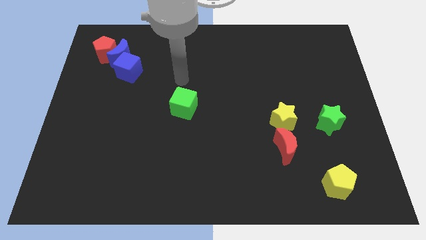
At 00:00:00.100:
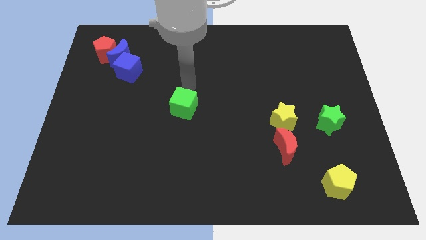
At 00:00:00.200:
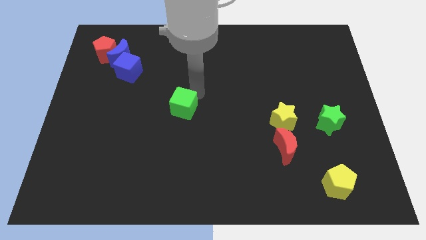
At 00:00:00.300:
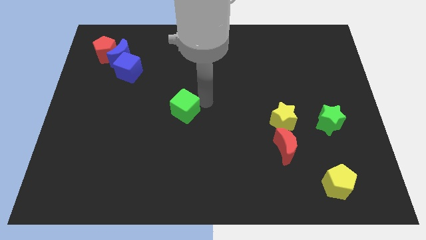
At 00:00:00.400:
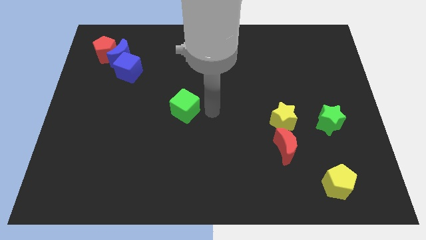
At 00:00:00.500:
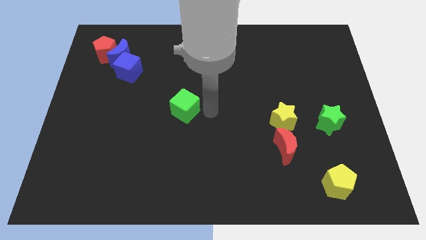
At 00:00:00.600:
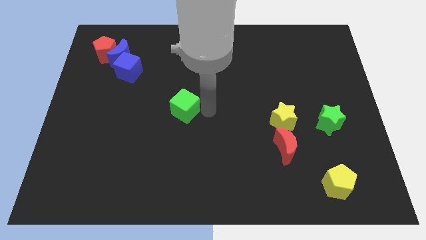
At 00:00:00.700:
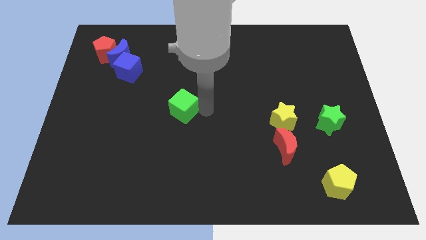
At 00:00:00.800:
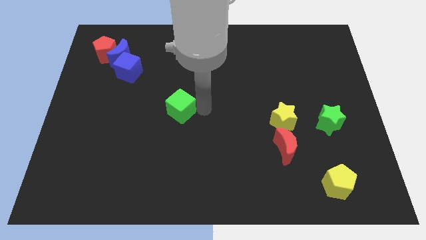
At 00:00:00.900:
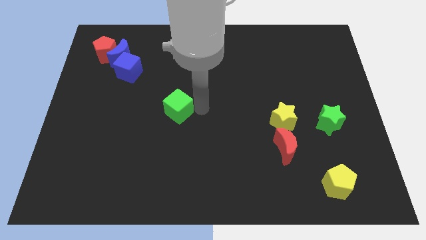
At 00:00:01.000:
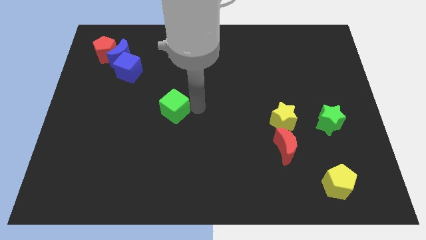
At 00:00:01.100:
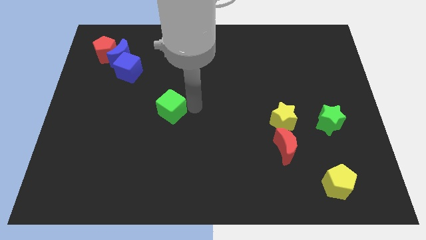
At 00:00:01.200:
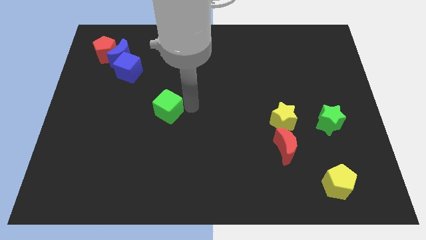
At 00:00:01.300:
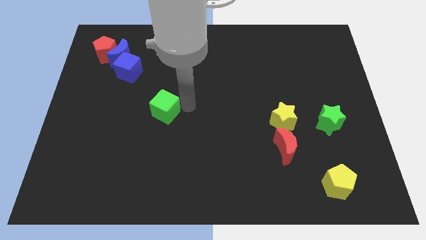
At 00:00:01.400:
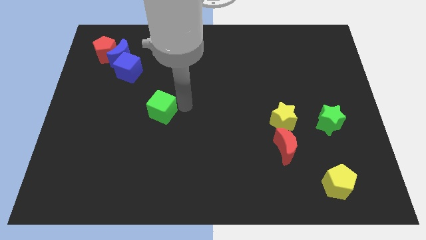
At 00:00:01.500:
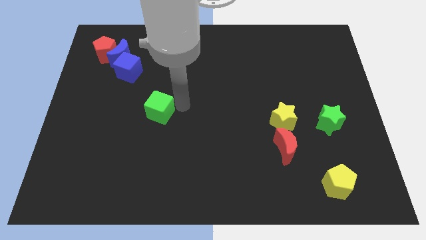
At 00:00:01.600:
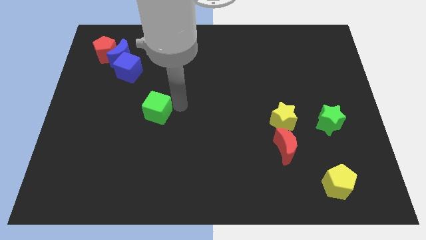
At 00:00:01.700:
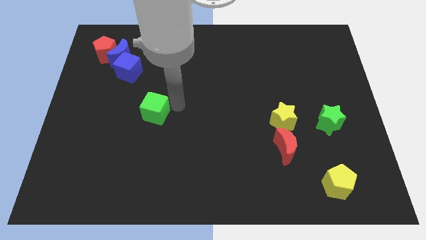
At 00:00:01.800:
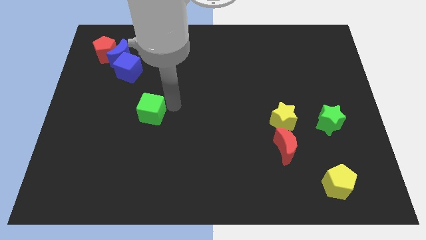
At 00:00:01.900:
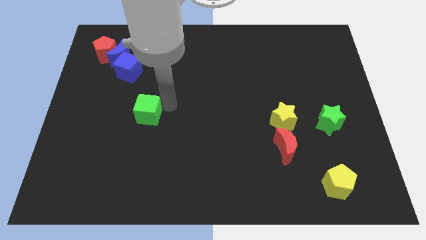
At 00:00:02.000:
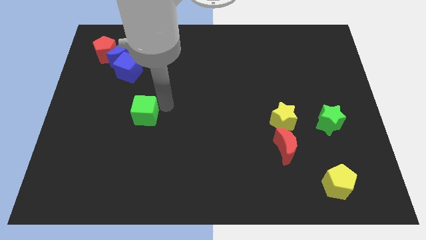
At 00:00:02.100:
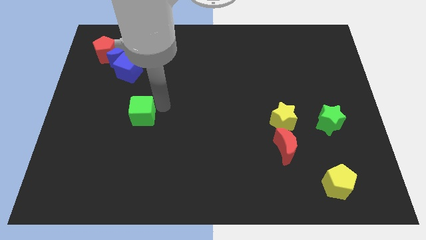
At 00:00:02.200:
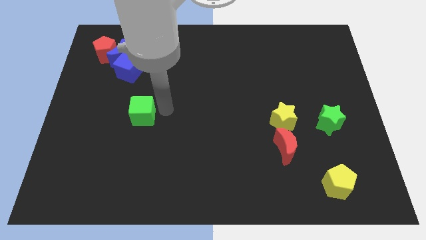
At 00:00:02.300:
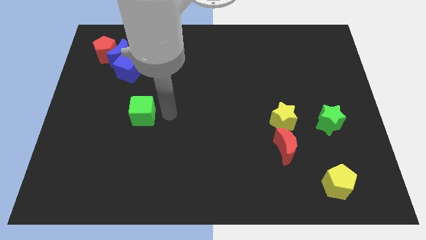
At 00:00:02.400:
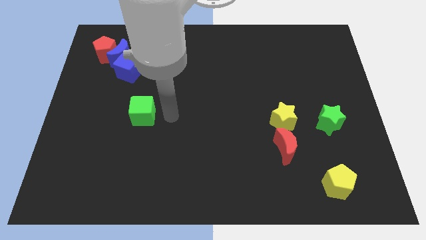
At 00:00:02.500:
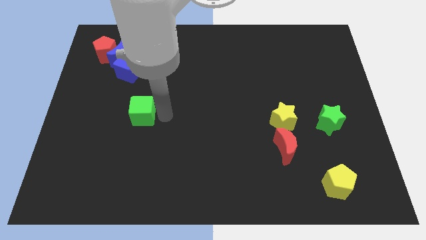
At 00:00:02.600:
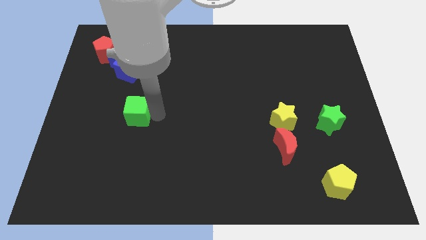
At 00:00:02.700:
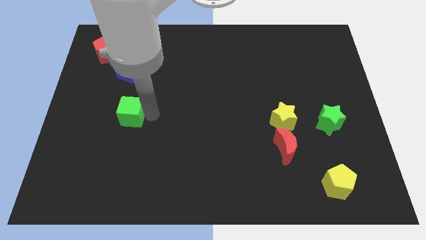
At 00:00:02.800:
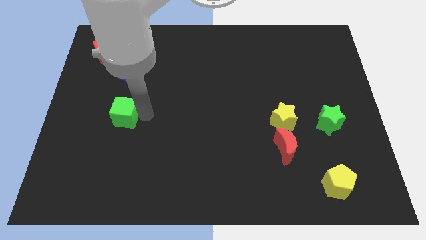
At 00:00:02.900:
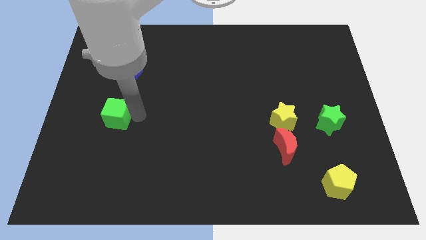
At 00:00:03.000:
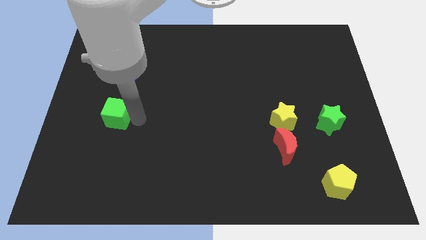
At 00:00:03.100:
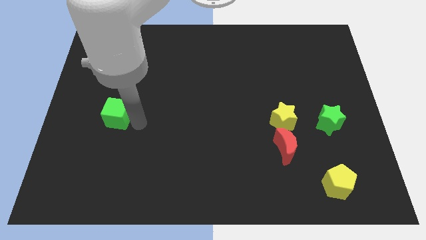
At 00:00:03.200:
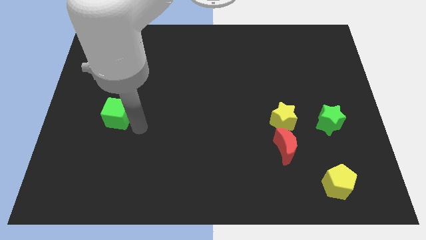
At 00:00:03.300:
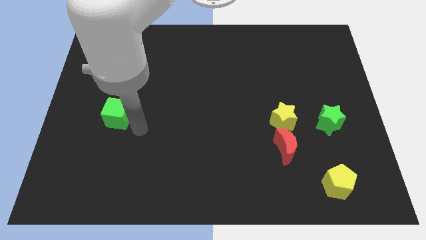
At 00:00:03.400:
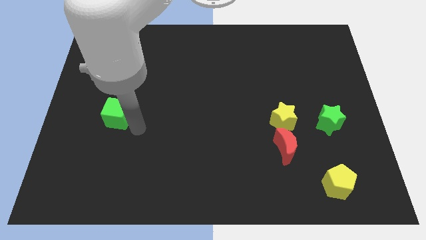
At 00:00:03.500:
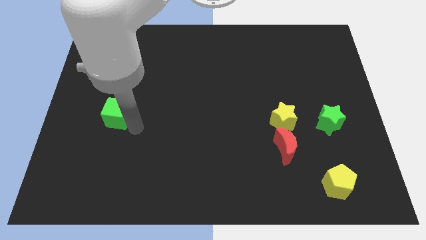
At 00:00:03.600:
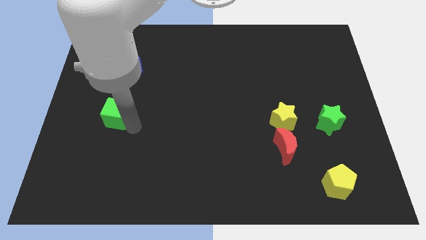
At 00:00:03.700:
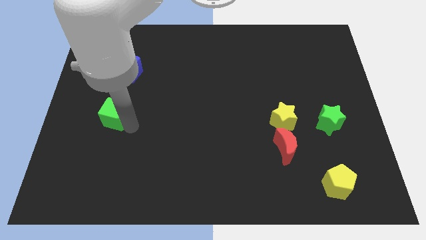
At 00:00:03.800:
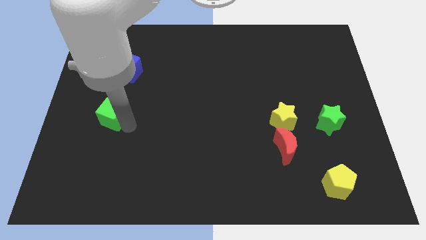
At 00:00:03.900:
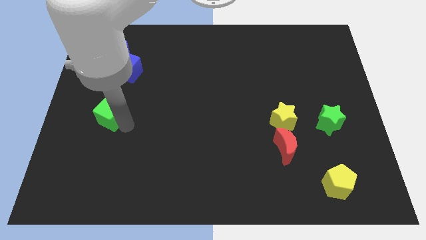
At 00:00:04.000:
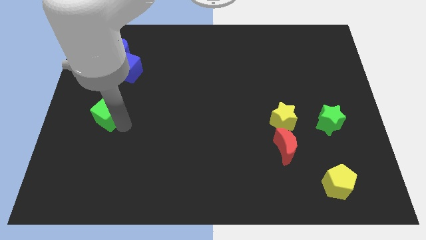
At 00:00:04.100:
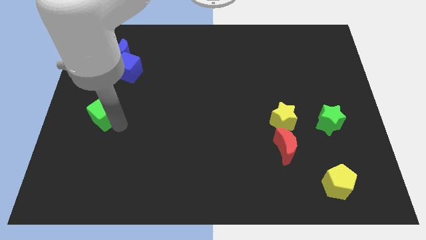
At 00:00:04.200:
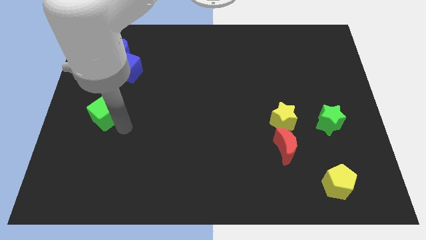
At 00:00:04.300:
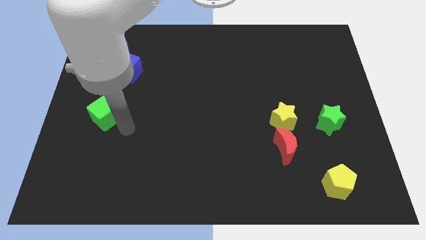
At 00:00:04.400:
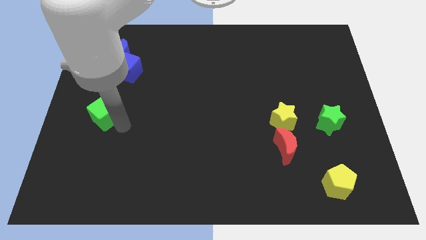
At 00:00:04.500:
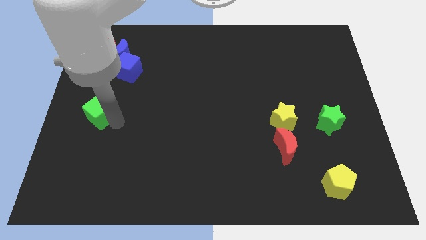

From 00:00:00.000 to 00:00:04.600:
move the green cube to the center left

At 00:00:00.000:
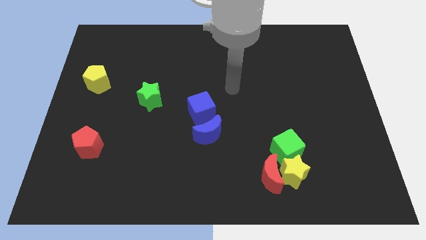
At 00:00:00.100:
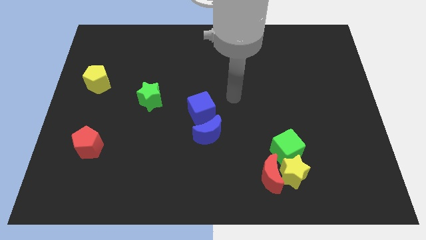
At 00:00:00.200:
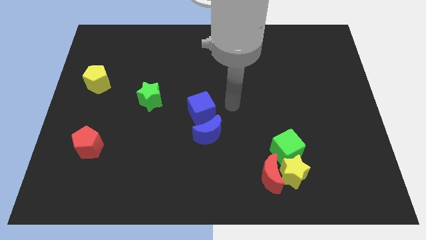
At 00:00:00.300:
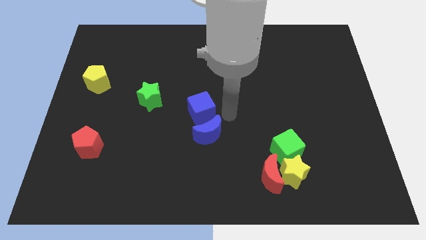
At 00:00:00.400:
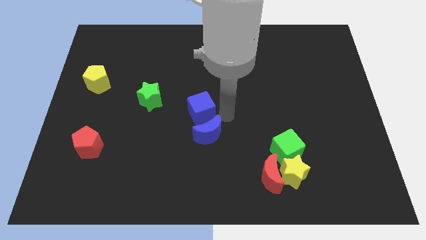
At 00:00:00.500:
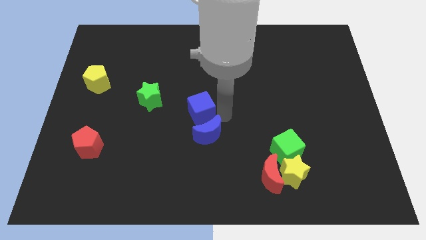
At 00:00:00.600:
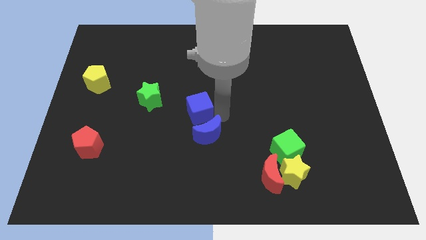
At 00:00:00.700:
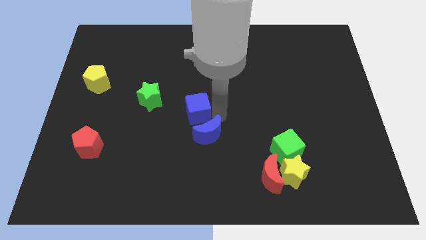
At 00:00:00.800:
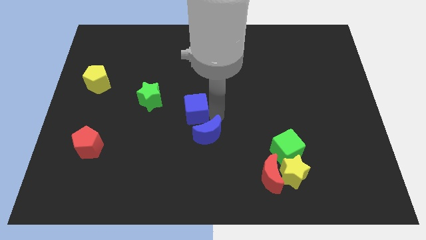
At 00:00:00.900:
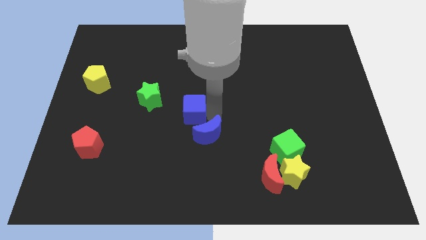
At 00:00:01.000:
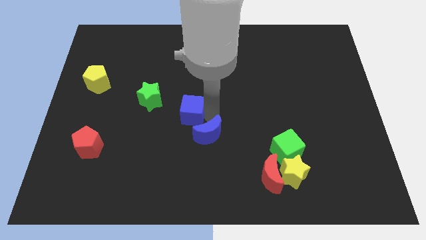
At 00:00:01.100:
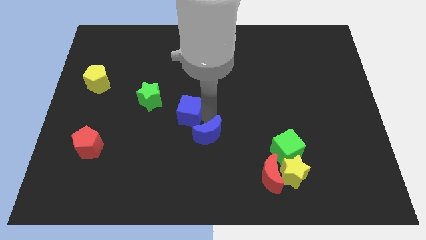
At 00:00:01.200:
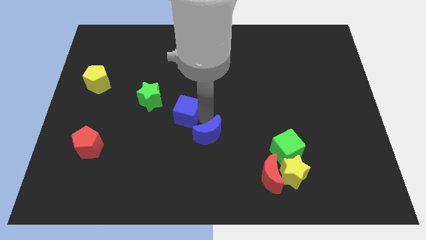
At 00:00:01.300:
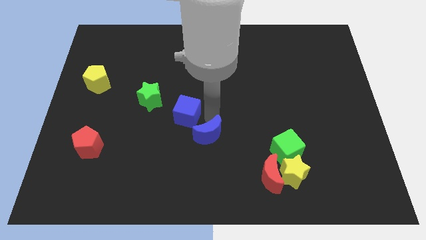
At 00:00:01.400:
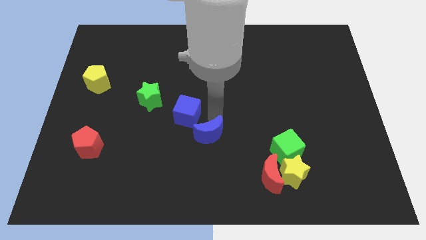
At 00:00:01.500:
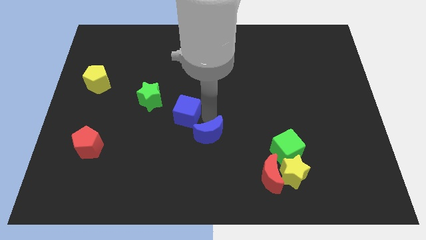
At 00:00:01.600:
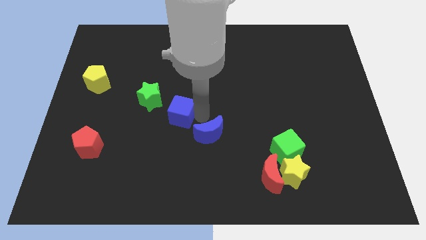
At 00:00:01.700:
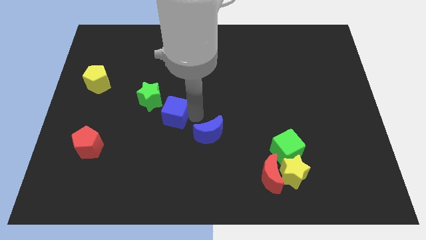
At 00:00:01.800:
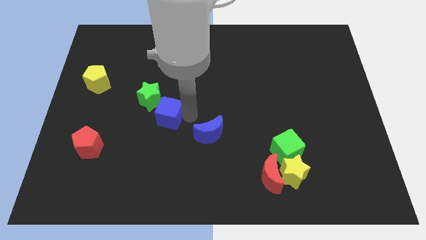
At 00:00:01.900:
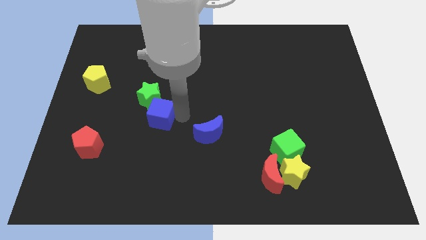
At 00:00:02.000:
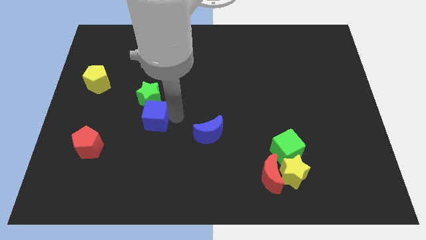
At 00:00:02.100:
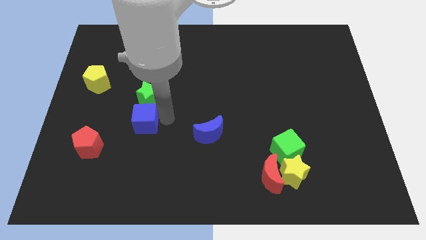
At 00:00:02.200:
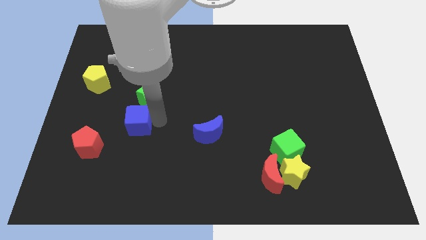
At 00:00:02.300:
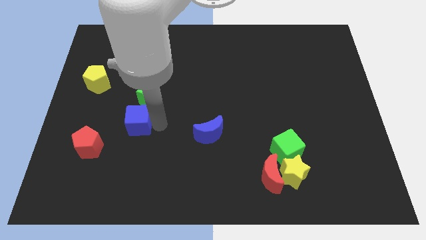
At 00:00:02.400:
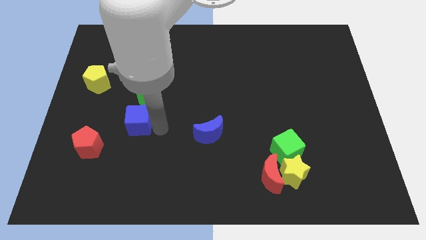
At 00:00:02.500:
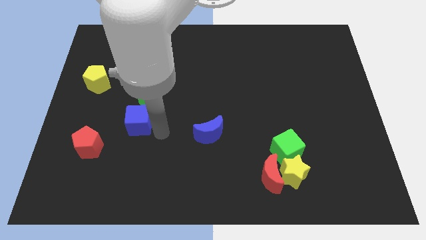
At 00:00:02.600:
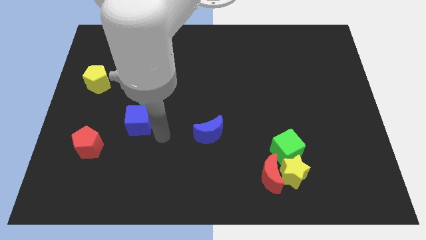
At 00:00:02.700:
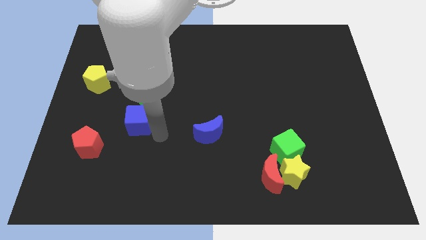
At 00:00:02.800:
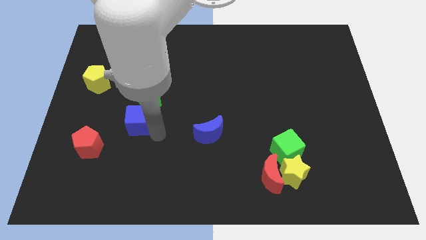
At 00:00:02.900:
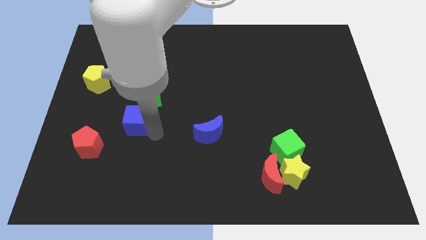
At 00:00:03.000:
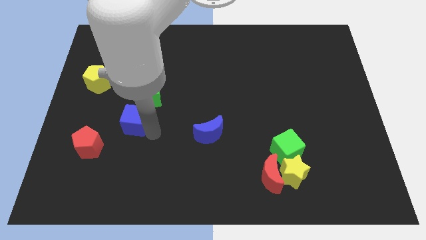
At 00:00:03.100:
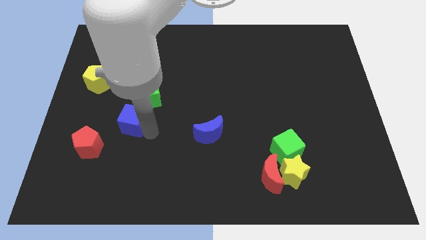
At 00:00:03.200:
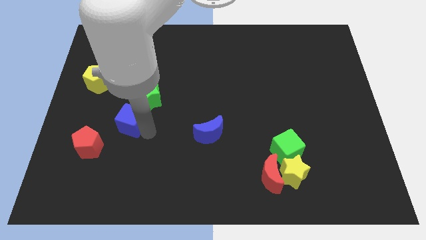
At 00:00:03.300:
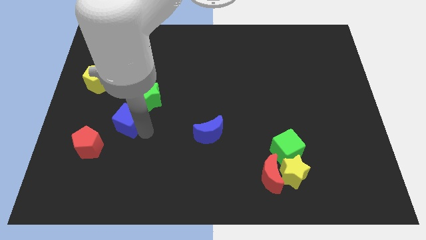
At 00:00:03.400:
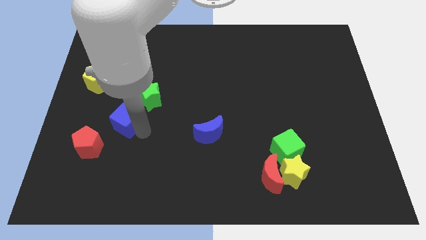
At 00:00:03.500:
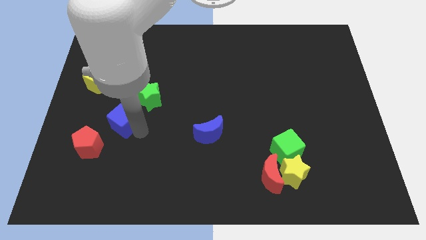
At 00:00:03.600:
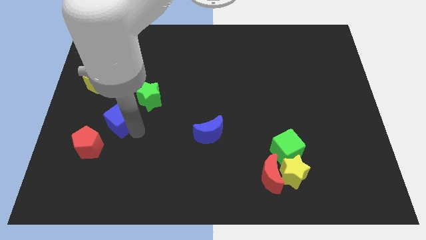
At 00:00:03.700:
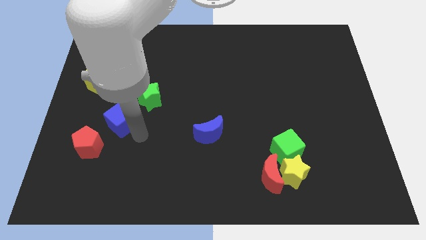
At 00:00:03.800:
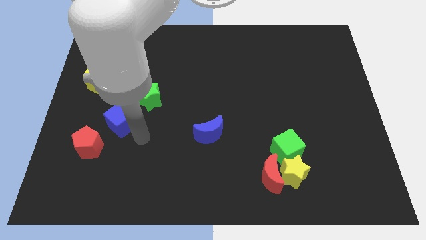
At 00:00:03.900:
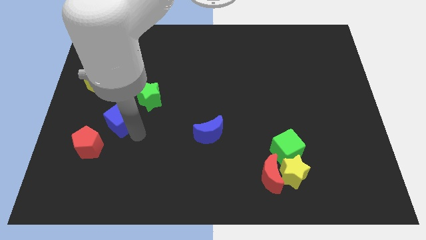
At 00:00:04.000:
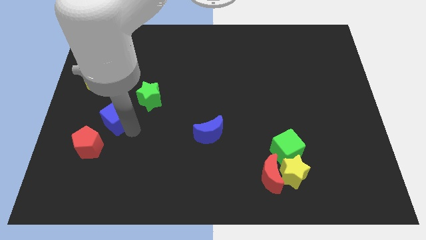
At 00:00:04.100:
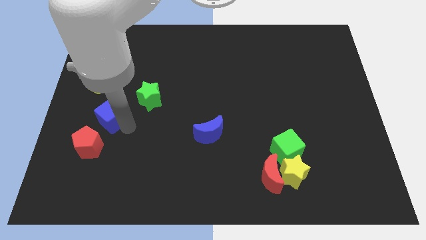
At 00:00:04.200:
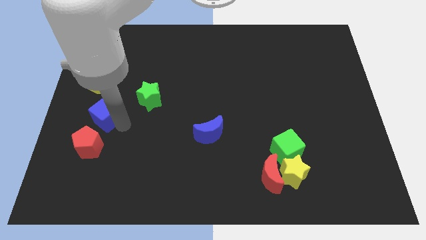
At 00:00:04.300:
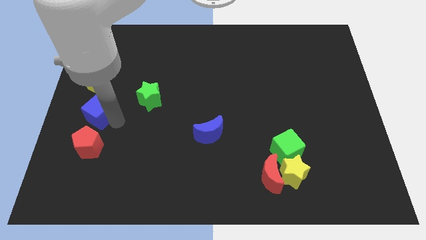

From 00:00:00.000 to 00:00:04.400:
slide the blue cube to the center left
